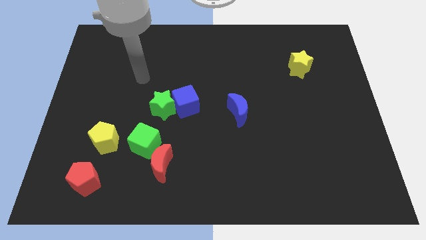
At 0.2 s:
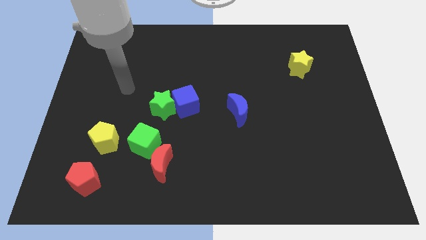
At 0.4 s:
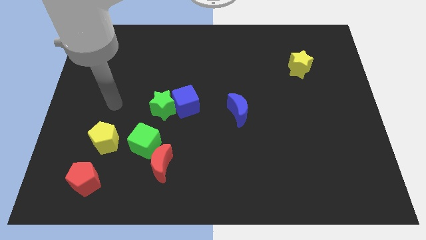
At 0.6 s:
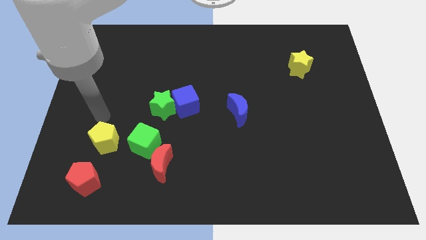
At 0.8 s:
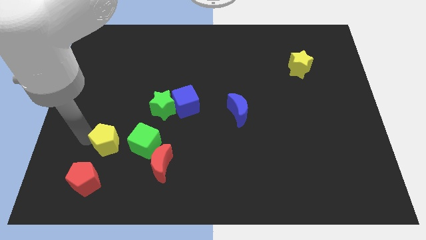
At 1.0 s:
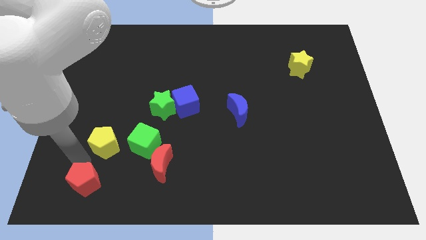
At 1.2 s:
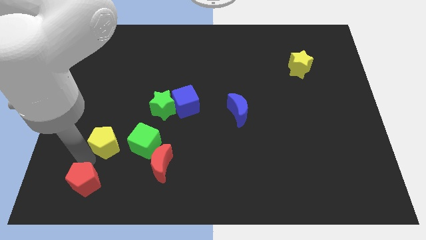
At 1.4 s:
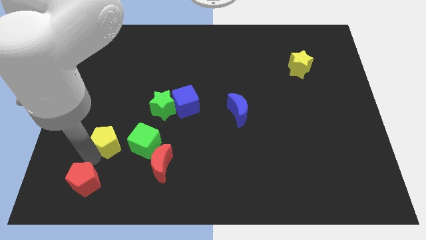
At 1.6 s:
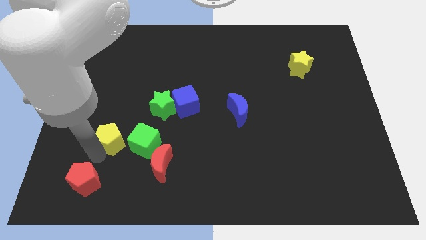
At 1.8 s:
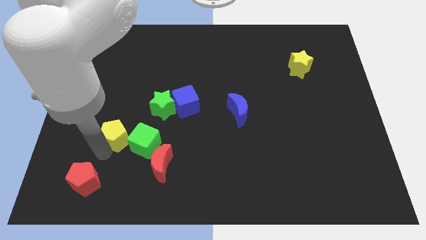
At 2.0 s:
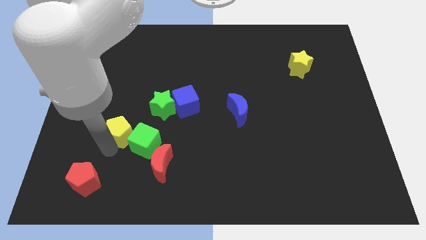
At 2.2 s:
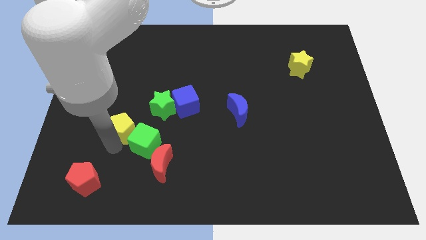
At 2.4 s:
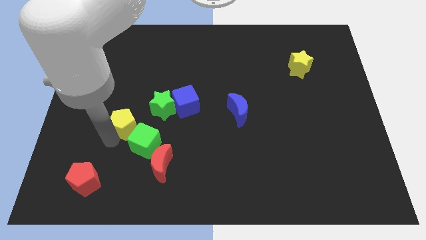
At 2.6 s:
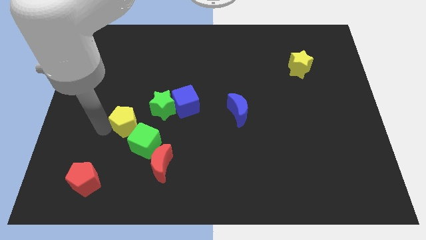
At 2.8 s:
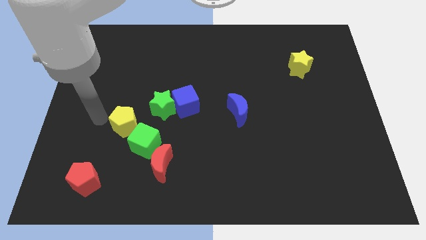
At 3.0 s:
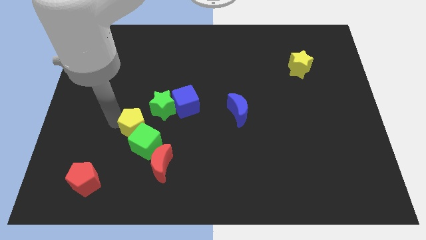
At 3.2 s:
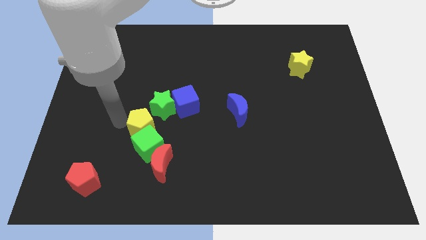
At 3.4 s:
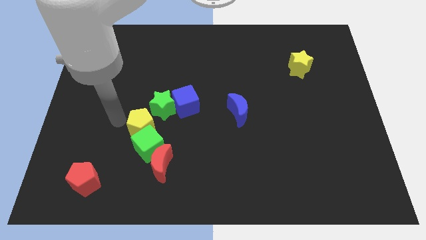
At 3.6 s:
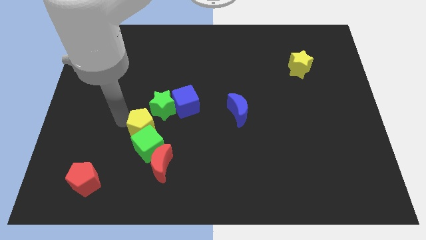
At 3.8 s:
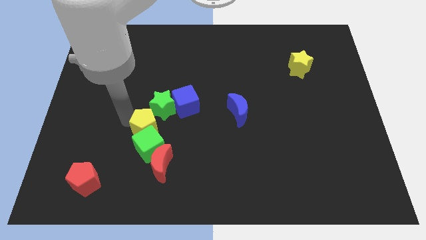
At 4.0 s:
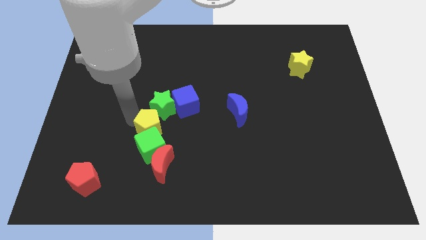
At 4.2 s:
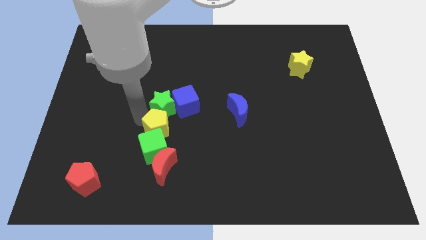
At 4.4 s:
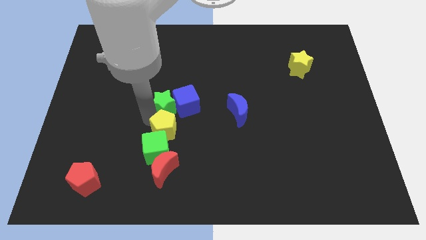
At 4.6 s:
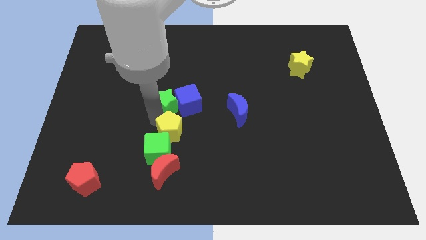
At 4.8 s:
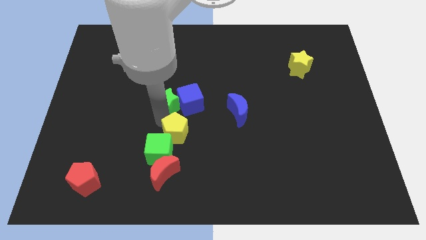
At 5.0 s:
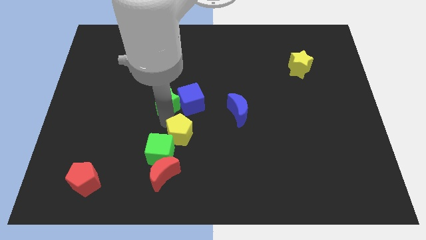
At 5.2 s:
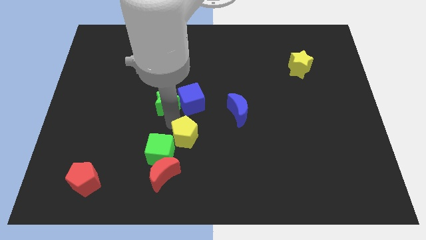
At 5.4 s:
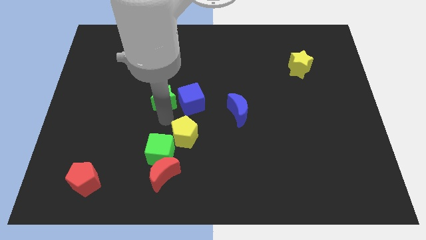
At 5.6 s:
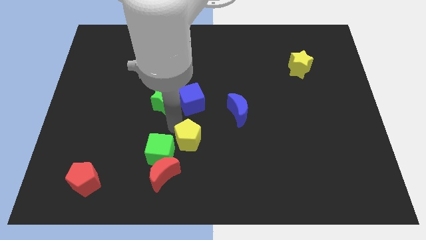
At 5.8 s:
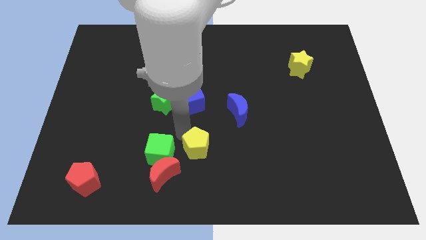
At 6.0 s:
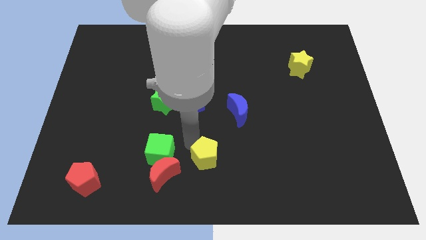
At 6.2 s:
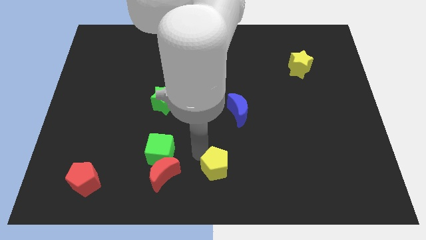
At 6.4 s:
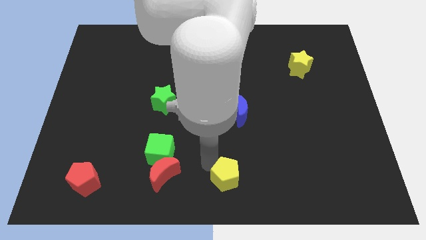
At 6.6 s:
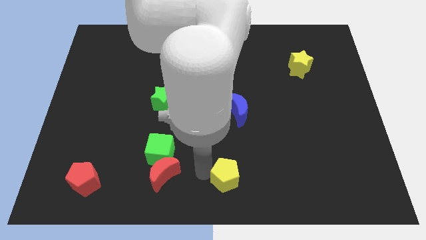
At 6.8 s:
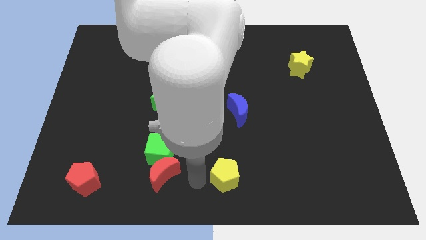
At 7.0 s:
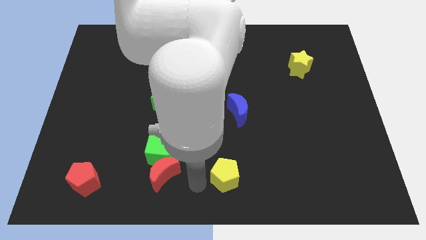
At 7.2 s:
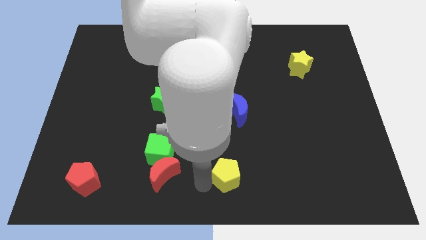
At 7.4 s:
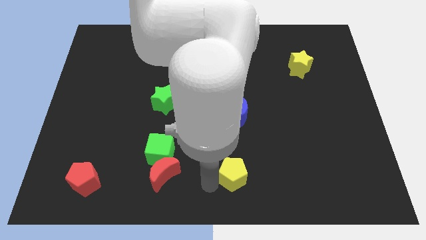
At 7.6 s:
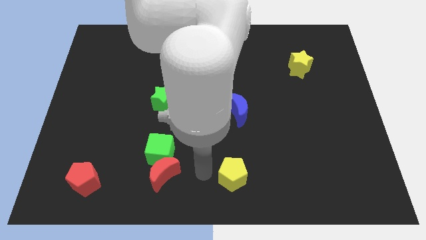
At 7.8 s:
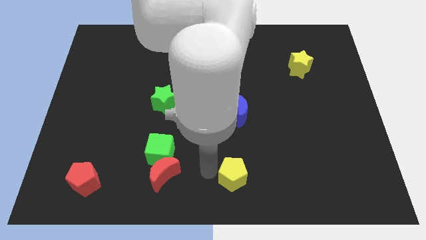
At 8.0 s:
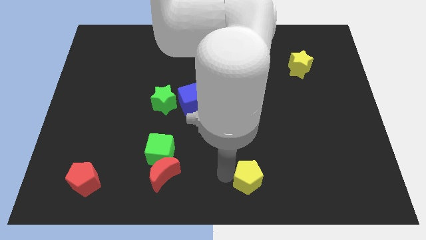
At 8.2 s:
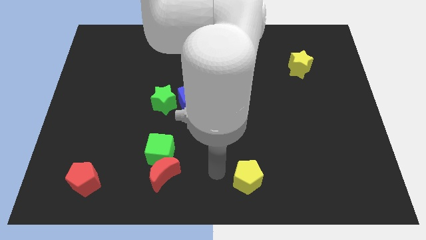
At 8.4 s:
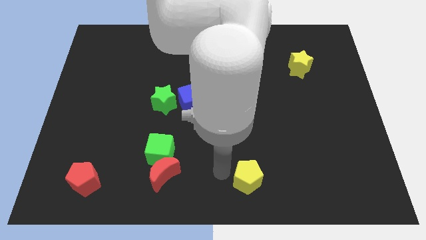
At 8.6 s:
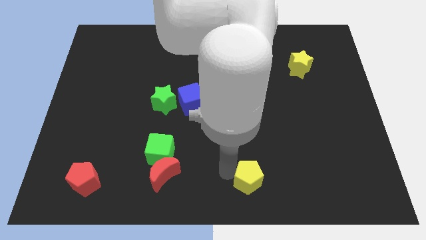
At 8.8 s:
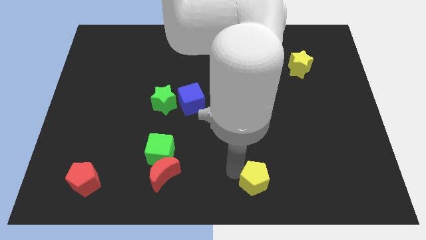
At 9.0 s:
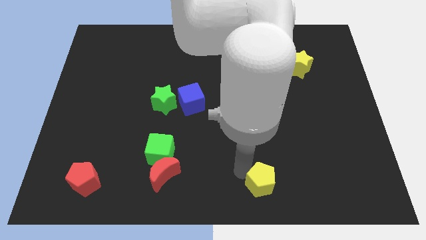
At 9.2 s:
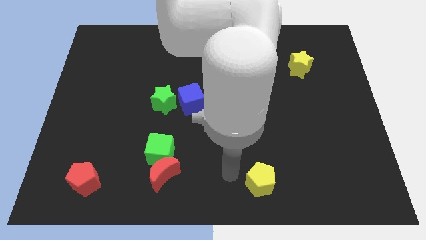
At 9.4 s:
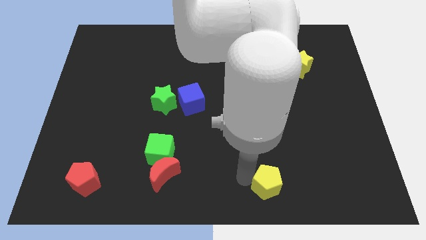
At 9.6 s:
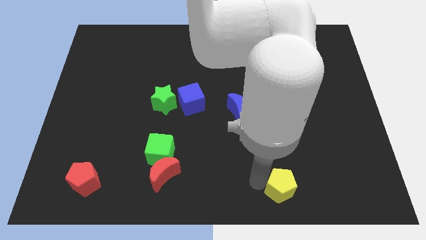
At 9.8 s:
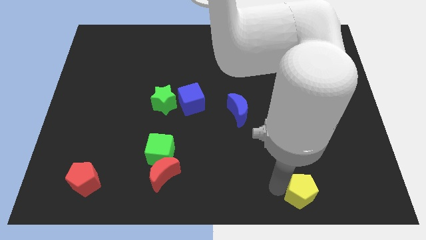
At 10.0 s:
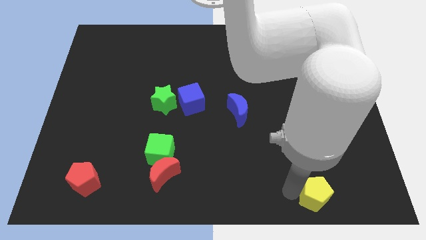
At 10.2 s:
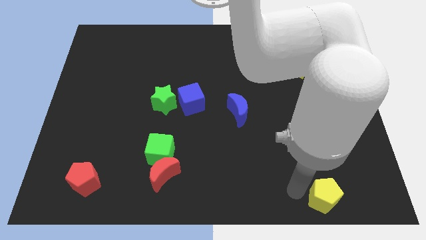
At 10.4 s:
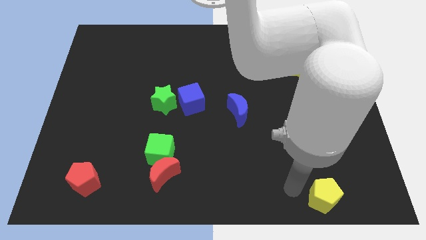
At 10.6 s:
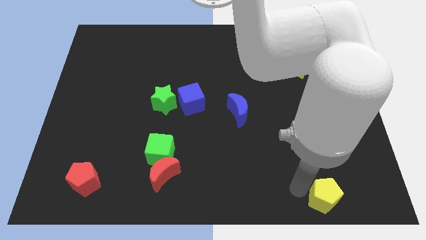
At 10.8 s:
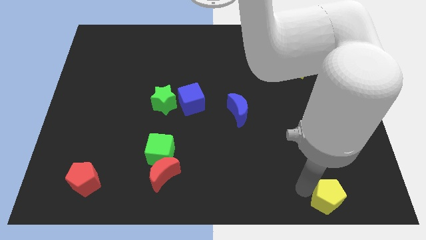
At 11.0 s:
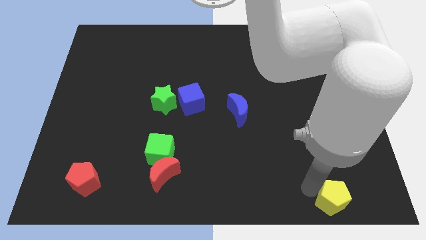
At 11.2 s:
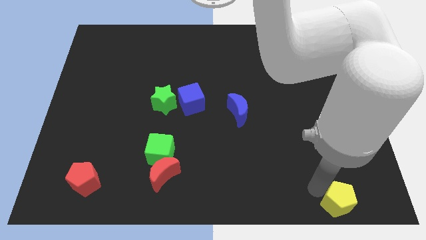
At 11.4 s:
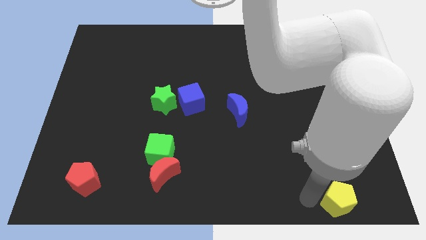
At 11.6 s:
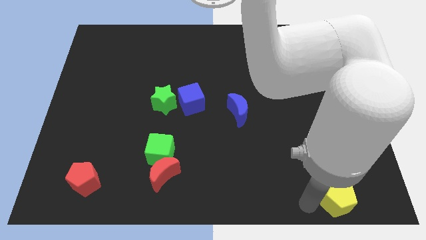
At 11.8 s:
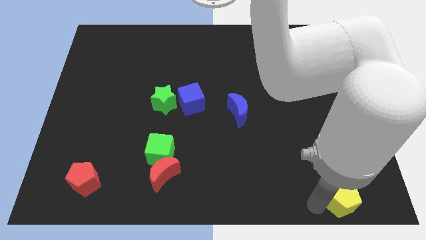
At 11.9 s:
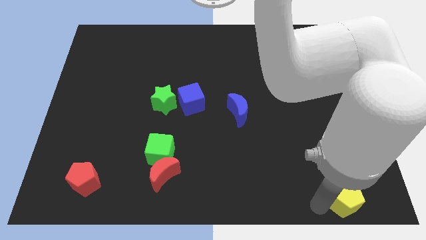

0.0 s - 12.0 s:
move the yellow pentagon to the bottom right
